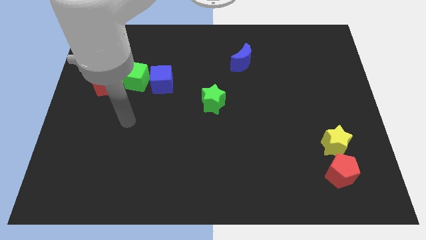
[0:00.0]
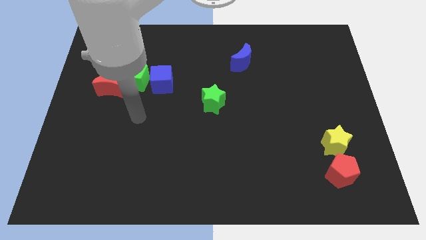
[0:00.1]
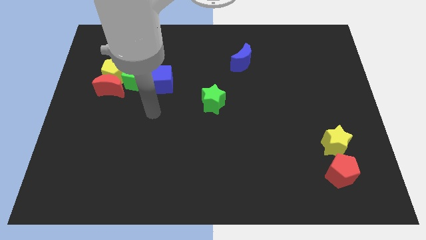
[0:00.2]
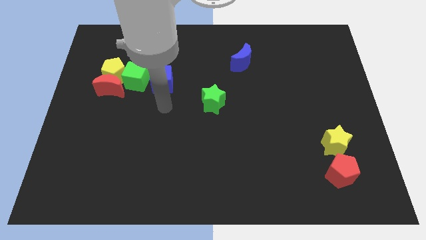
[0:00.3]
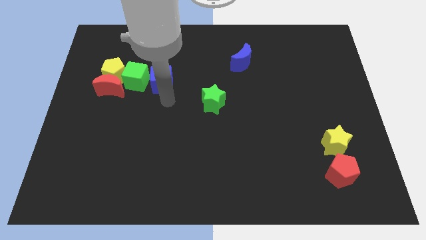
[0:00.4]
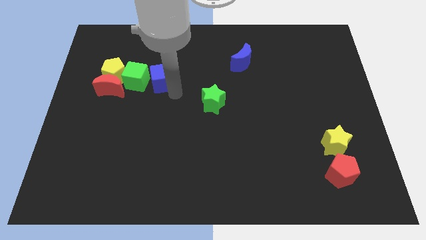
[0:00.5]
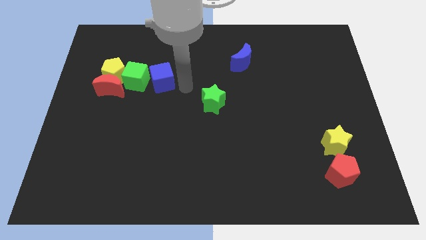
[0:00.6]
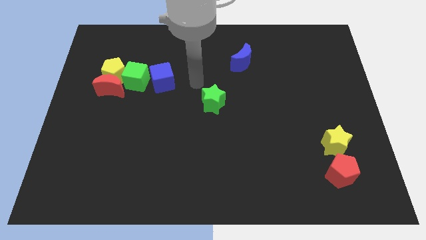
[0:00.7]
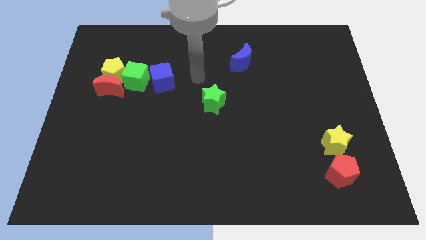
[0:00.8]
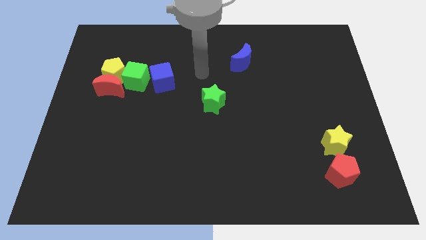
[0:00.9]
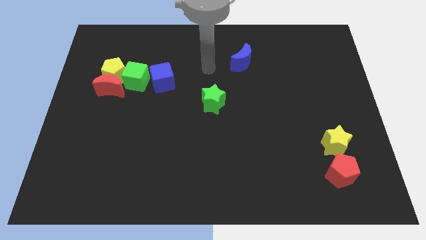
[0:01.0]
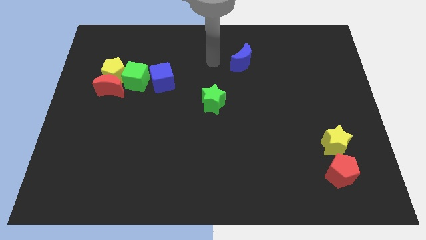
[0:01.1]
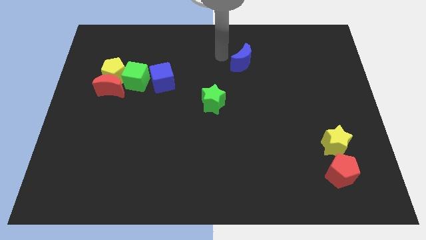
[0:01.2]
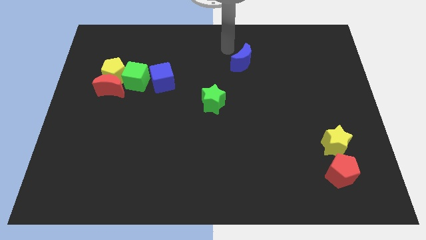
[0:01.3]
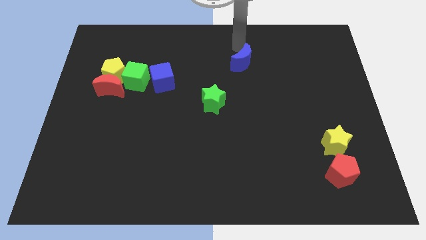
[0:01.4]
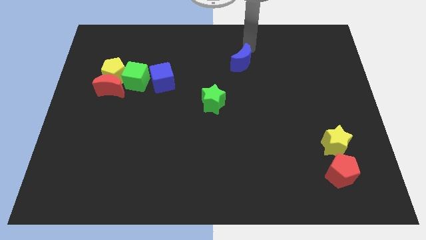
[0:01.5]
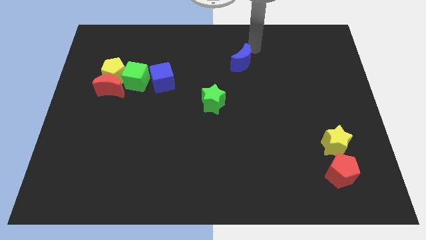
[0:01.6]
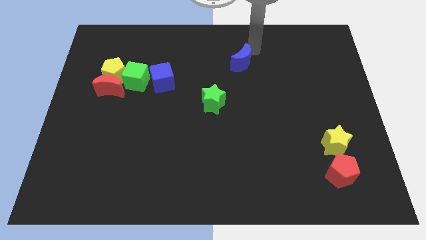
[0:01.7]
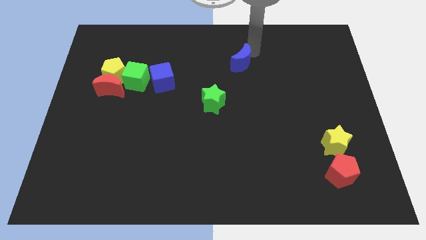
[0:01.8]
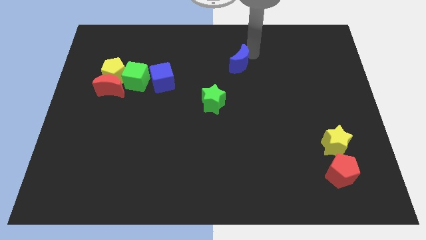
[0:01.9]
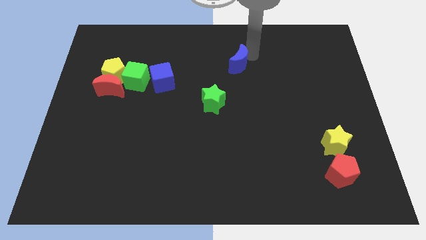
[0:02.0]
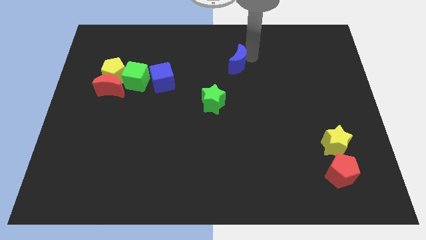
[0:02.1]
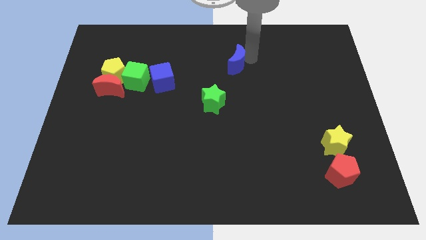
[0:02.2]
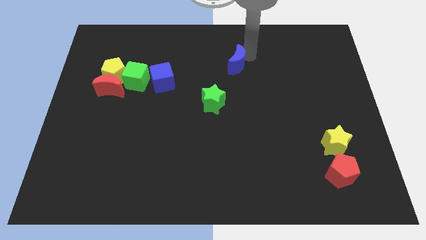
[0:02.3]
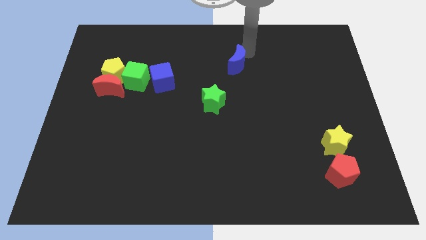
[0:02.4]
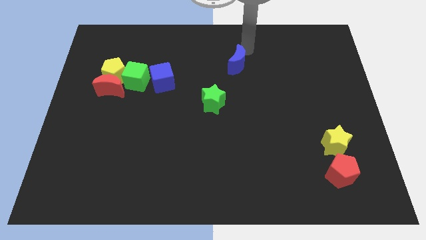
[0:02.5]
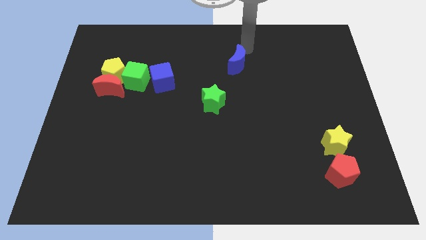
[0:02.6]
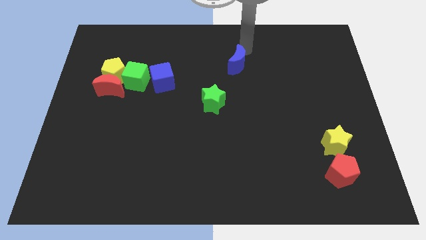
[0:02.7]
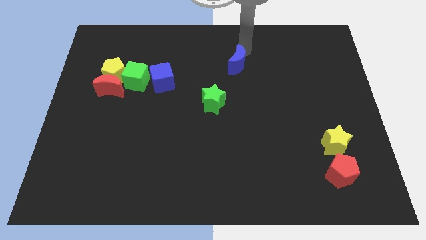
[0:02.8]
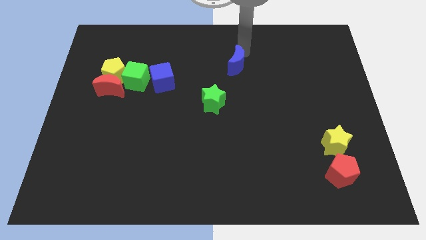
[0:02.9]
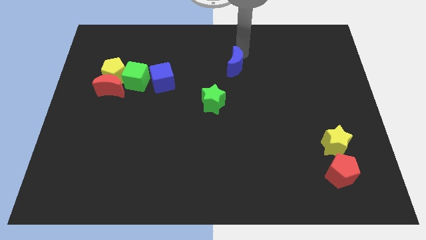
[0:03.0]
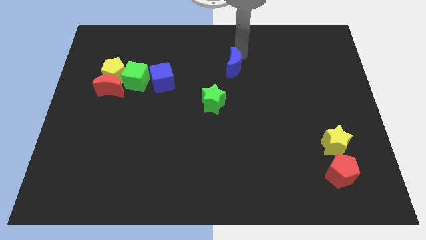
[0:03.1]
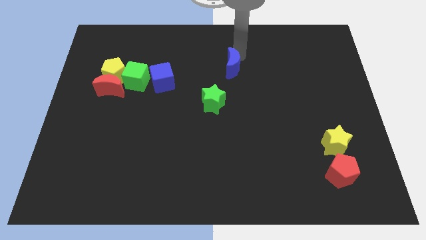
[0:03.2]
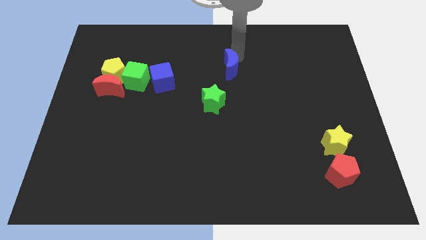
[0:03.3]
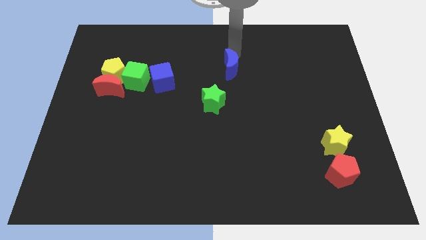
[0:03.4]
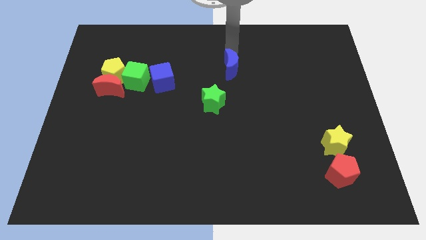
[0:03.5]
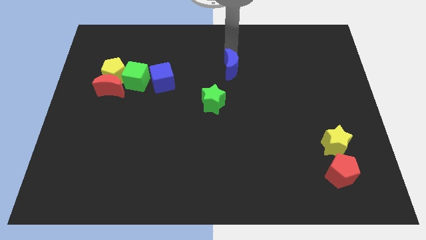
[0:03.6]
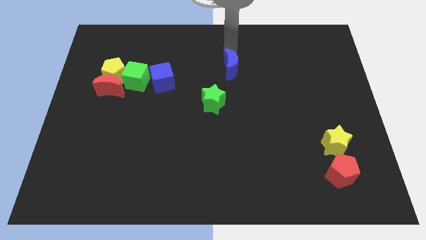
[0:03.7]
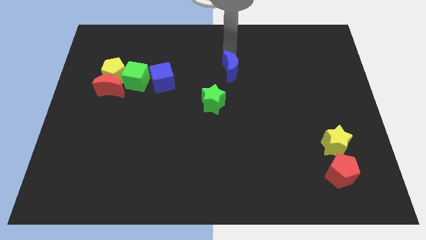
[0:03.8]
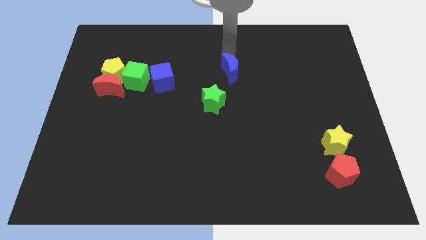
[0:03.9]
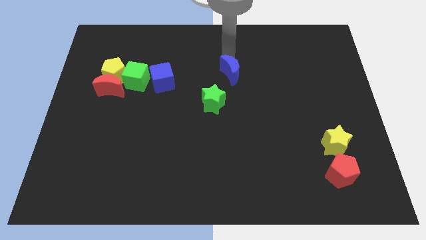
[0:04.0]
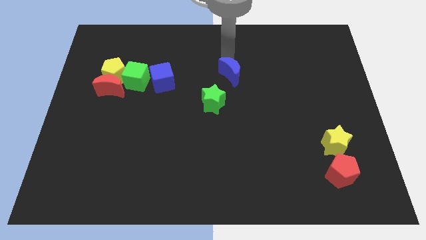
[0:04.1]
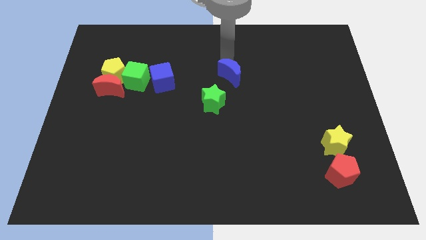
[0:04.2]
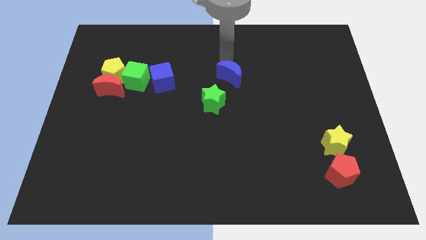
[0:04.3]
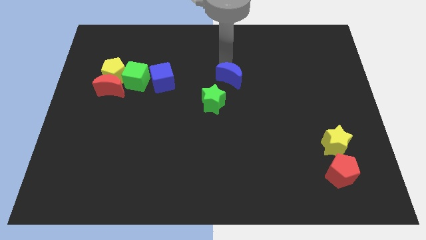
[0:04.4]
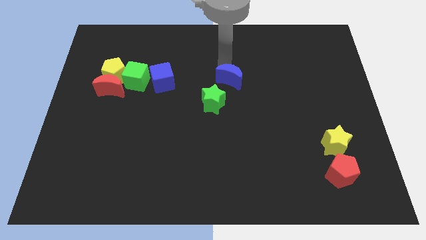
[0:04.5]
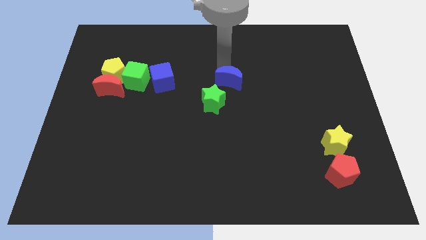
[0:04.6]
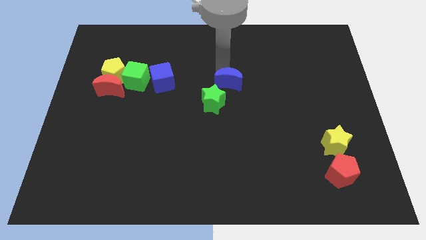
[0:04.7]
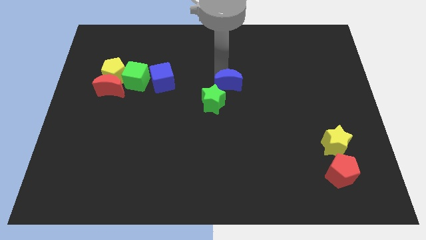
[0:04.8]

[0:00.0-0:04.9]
move the blue moon a bit down

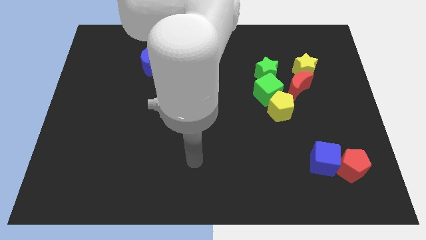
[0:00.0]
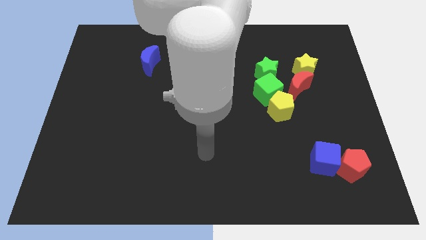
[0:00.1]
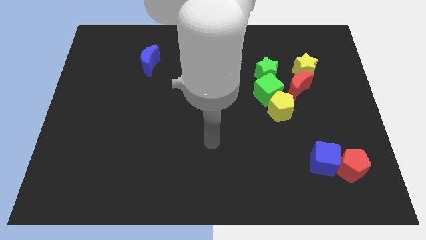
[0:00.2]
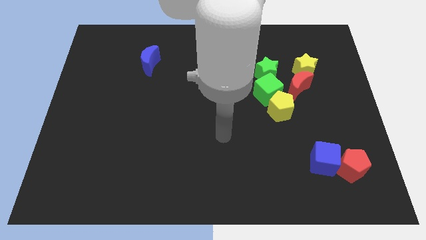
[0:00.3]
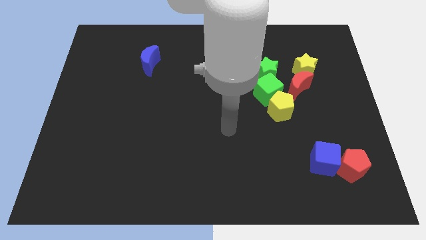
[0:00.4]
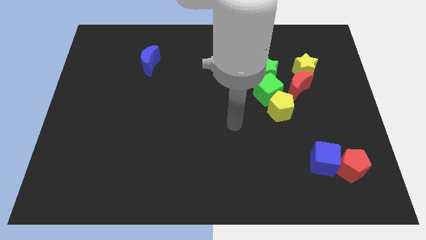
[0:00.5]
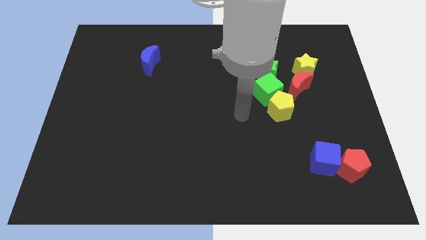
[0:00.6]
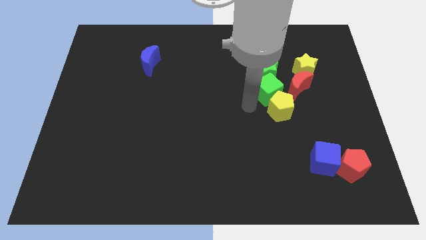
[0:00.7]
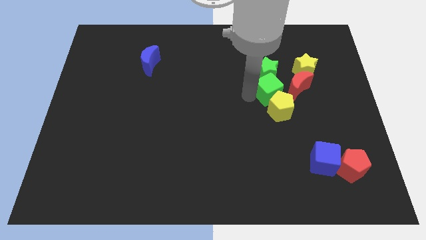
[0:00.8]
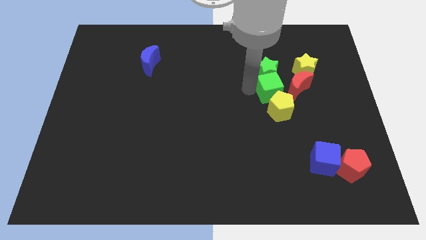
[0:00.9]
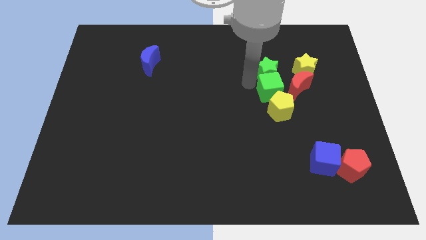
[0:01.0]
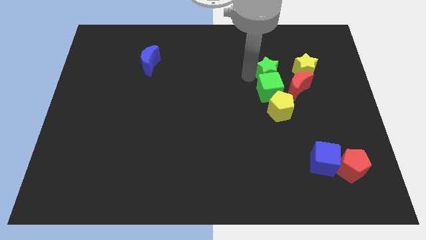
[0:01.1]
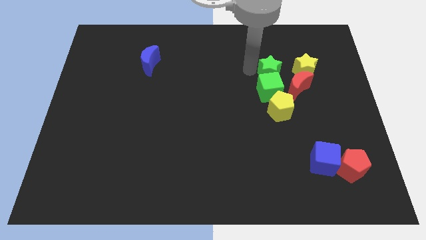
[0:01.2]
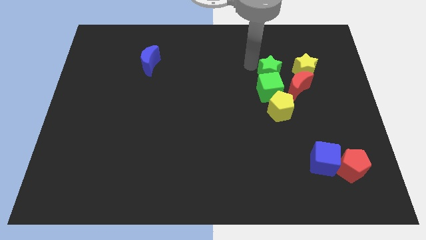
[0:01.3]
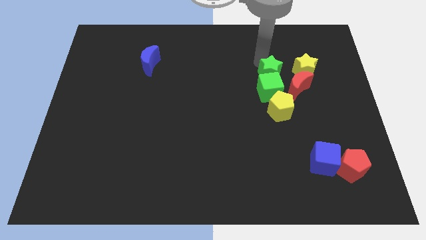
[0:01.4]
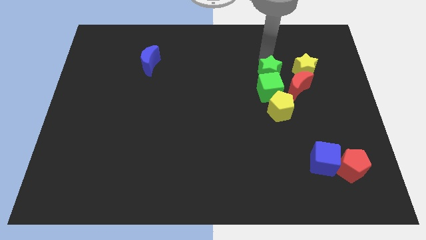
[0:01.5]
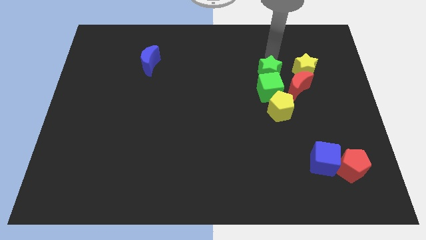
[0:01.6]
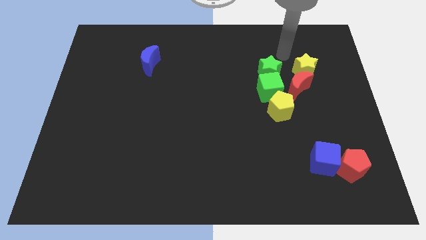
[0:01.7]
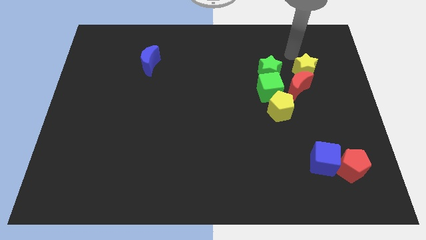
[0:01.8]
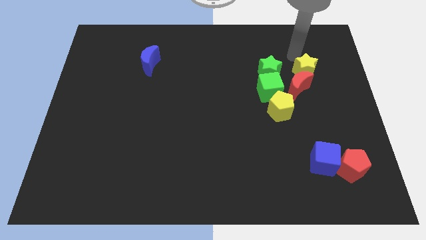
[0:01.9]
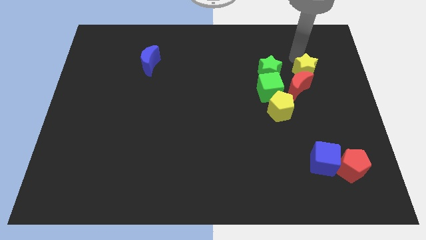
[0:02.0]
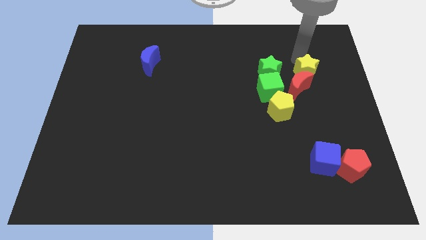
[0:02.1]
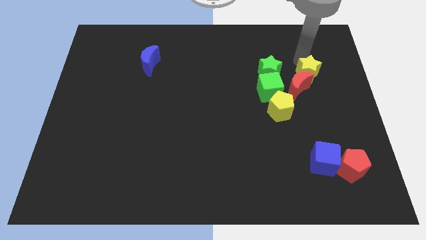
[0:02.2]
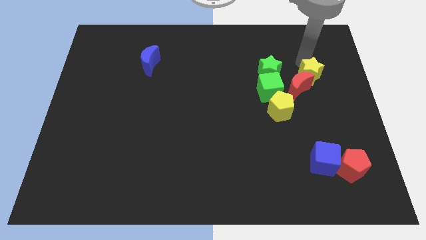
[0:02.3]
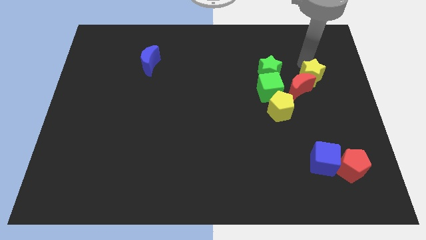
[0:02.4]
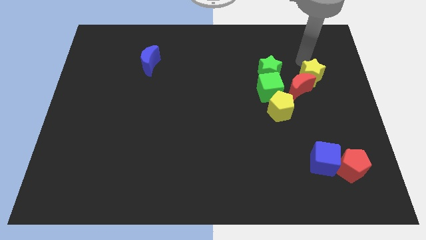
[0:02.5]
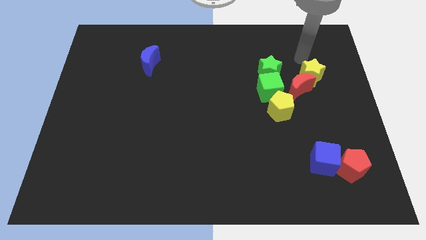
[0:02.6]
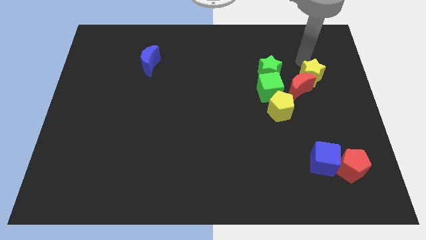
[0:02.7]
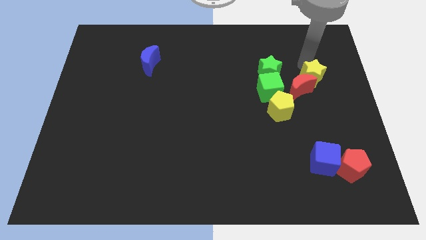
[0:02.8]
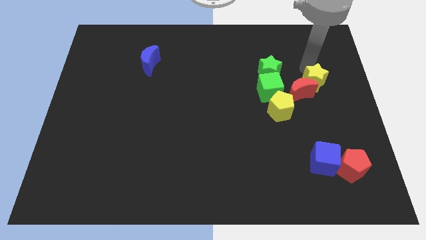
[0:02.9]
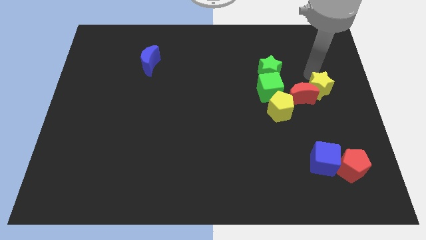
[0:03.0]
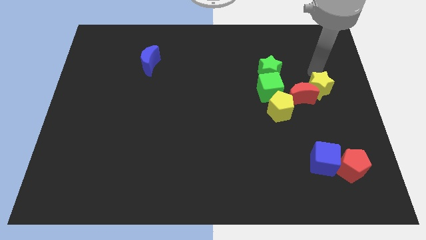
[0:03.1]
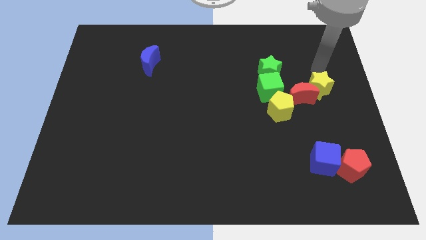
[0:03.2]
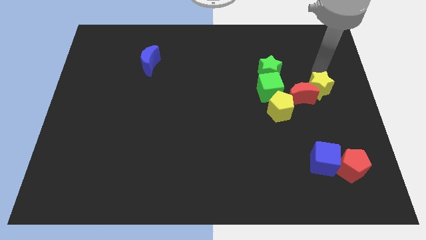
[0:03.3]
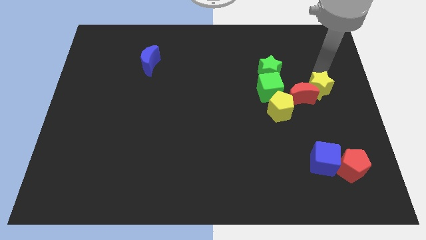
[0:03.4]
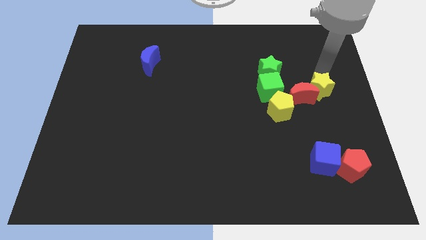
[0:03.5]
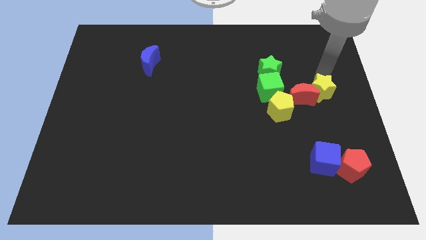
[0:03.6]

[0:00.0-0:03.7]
slightly push the yellow star downwards
